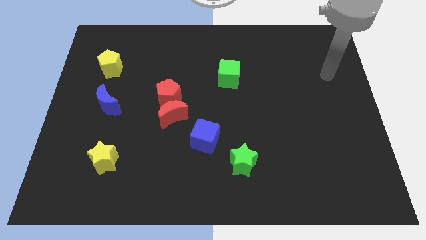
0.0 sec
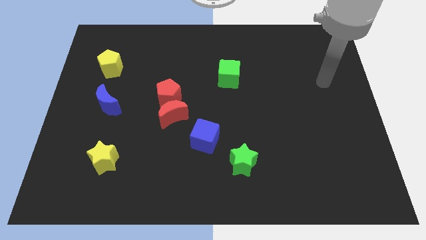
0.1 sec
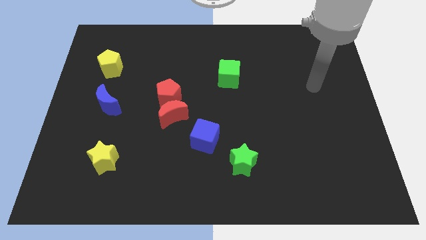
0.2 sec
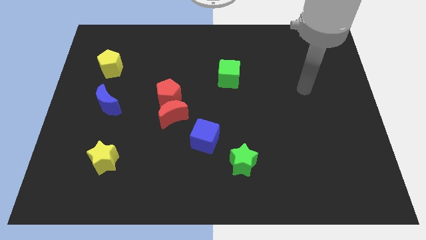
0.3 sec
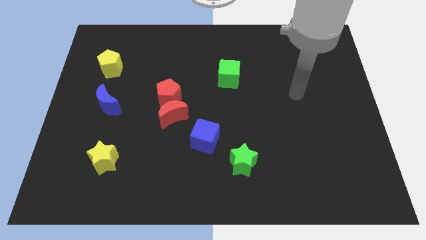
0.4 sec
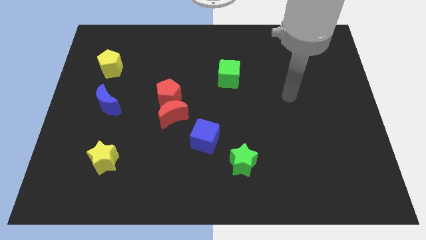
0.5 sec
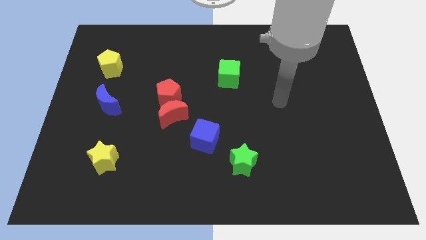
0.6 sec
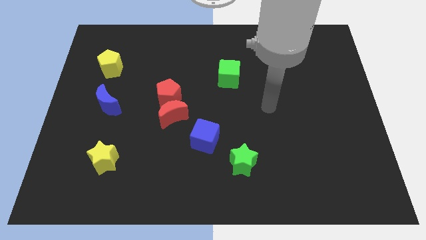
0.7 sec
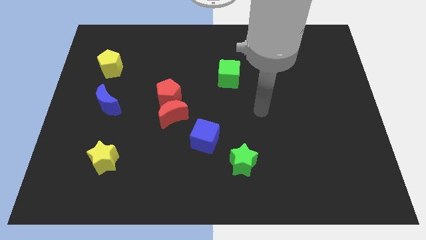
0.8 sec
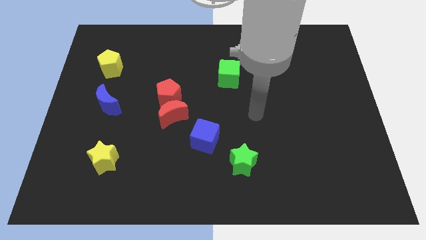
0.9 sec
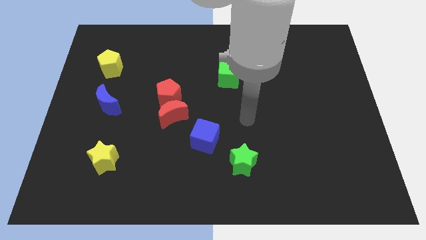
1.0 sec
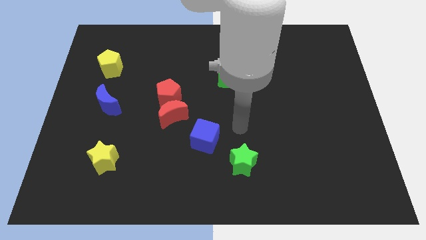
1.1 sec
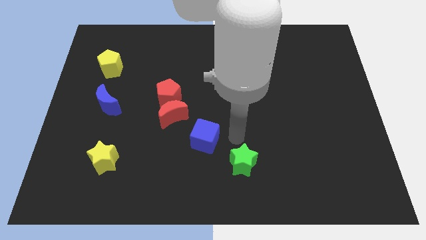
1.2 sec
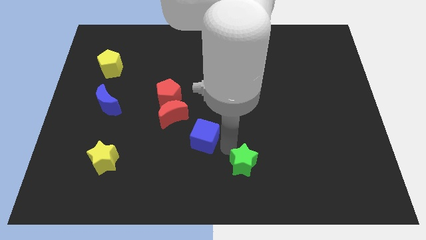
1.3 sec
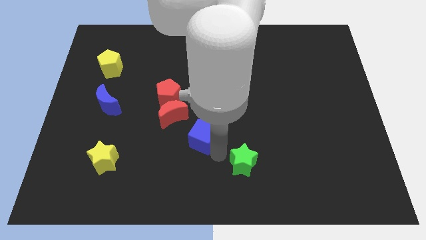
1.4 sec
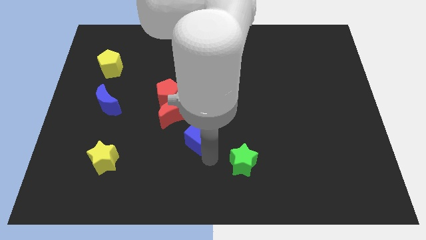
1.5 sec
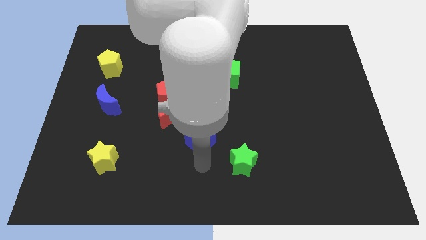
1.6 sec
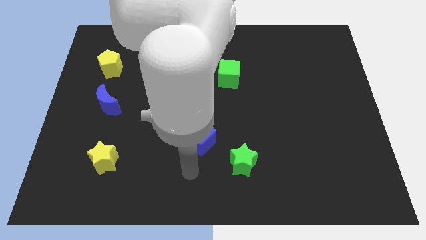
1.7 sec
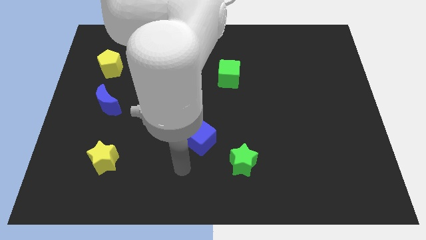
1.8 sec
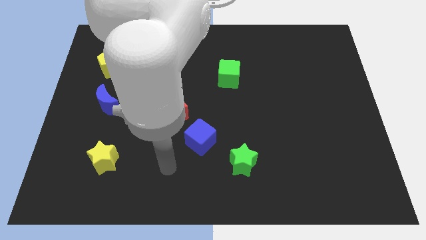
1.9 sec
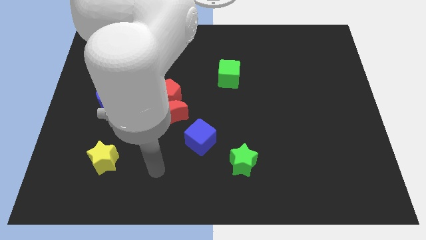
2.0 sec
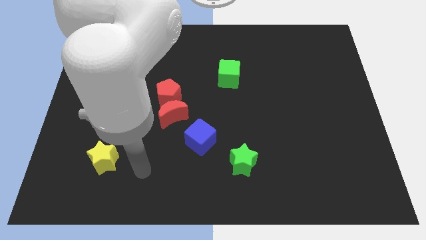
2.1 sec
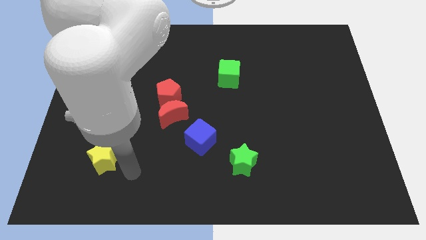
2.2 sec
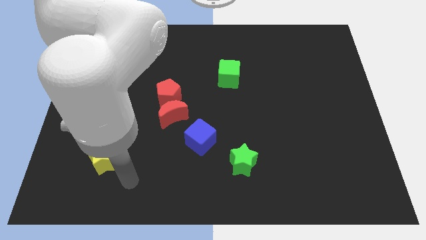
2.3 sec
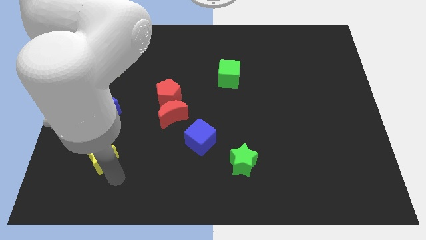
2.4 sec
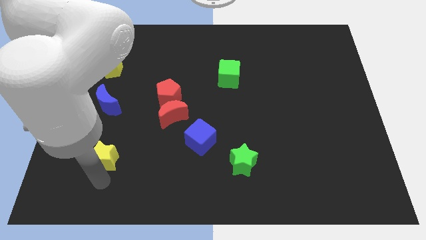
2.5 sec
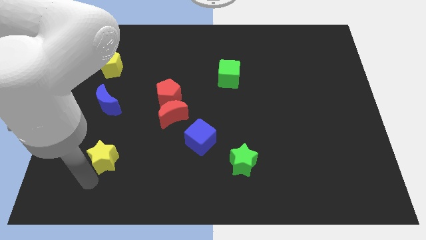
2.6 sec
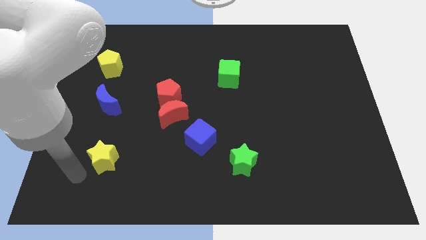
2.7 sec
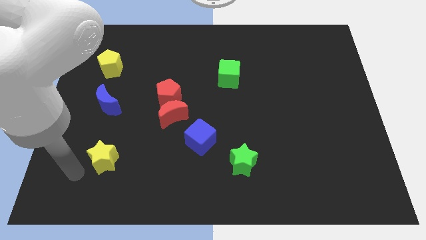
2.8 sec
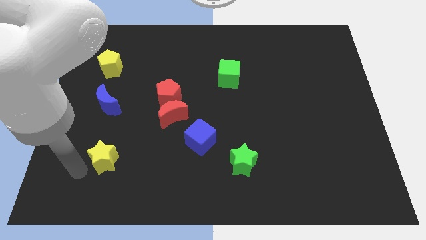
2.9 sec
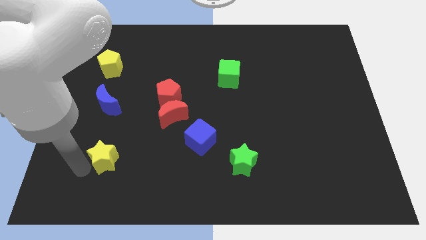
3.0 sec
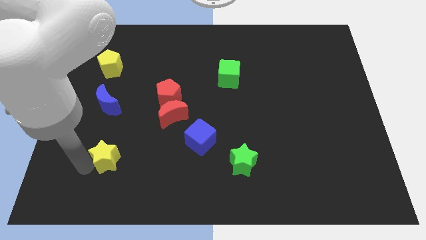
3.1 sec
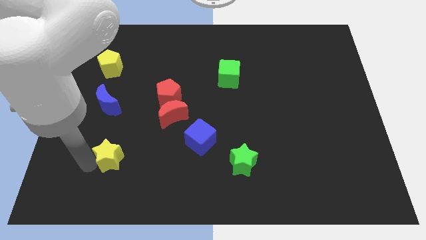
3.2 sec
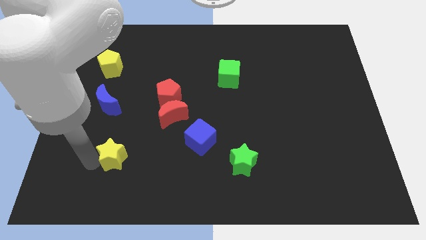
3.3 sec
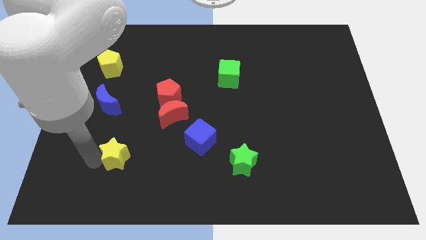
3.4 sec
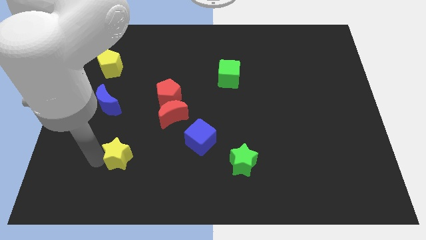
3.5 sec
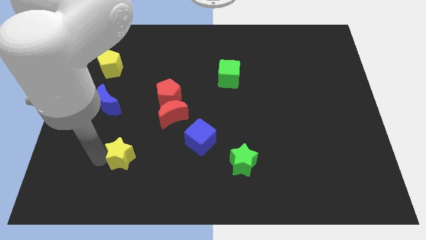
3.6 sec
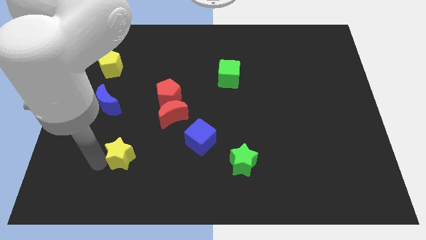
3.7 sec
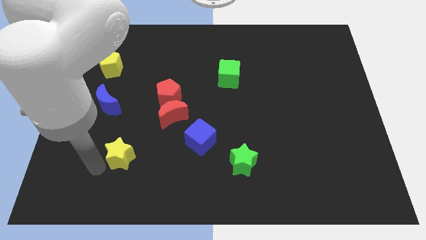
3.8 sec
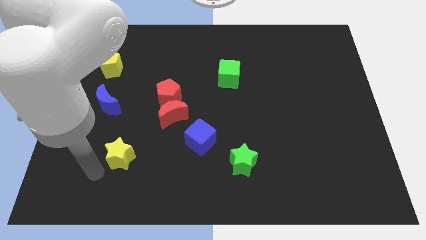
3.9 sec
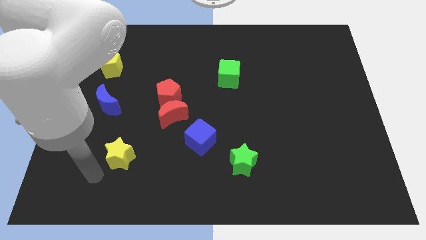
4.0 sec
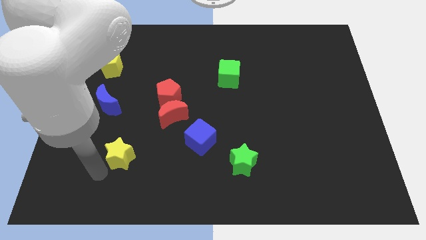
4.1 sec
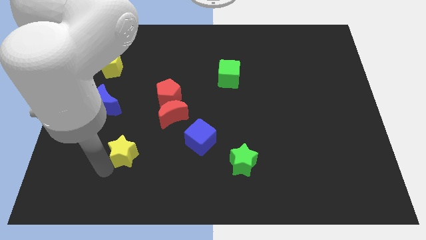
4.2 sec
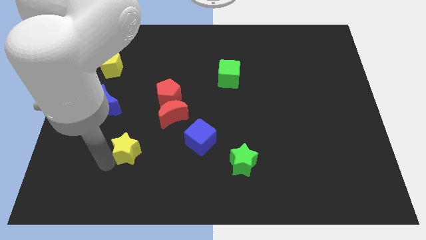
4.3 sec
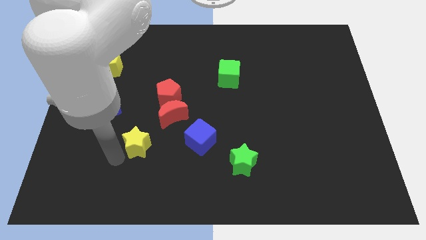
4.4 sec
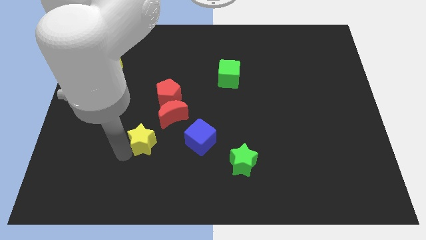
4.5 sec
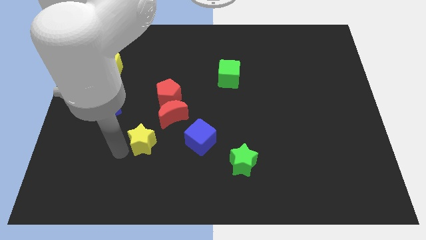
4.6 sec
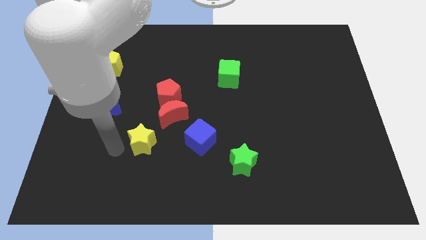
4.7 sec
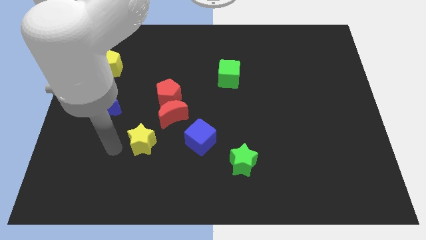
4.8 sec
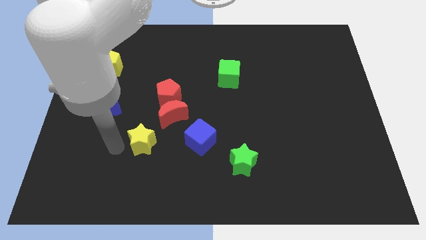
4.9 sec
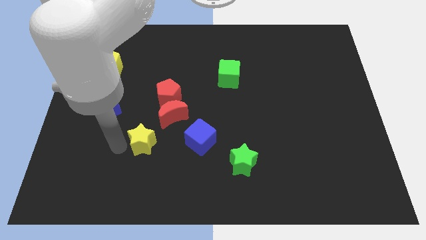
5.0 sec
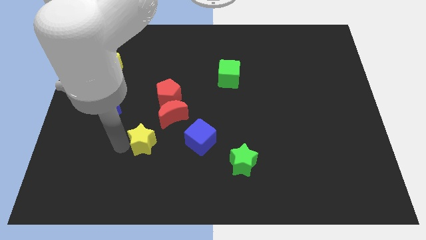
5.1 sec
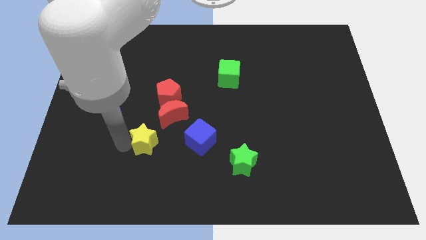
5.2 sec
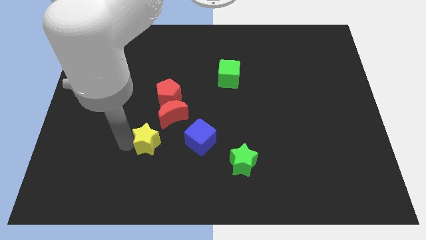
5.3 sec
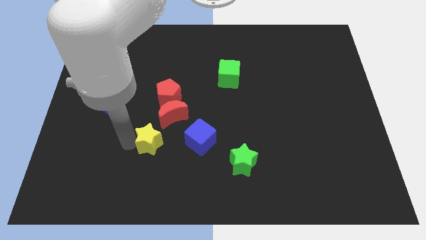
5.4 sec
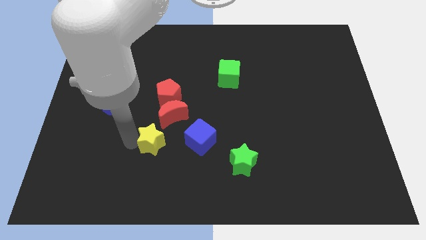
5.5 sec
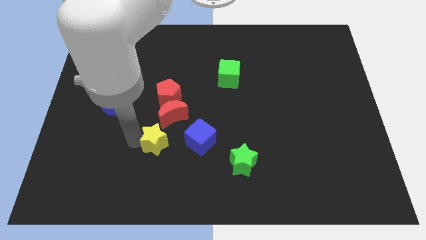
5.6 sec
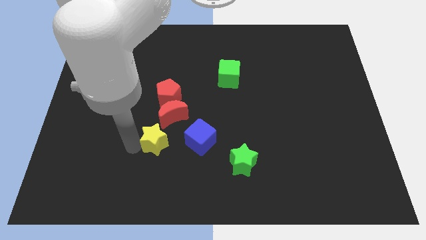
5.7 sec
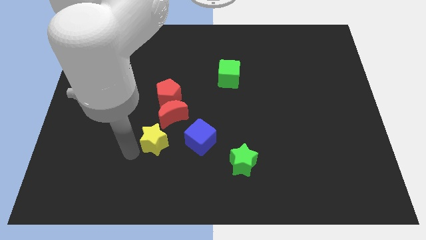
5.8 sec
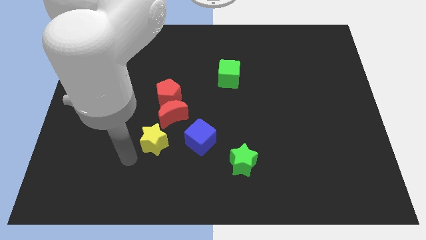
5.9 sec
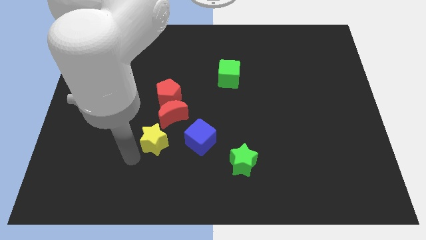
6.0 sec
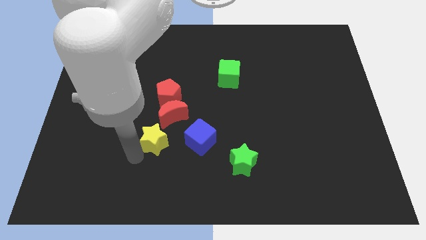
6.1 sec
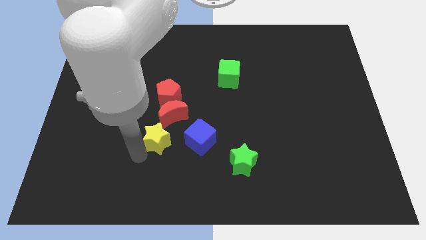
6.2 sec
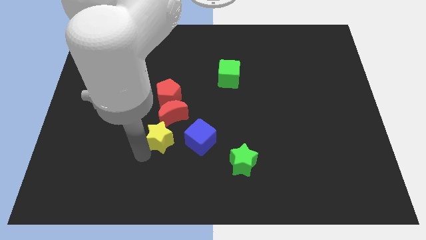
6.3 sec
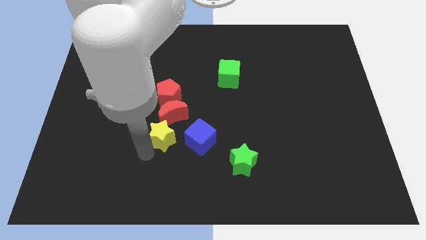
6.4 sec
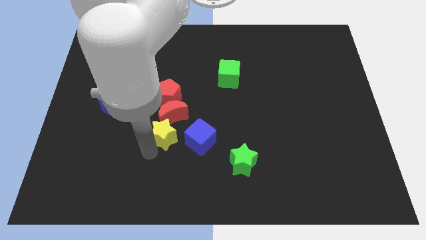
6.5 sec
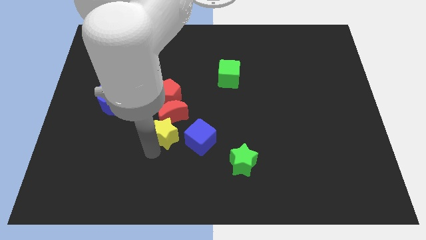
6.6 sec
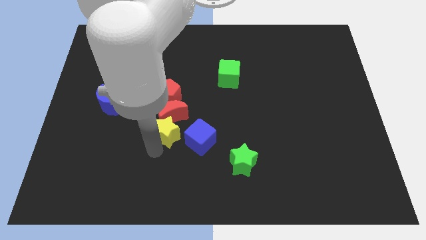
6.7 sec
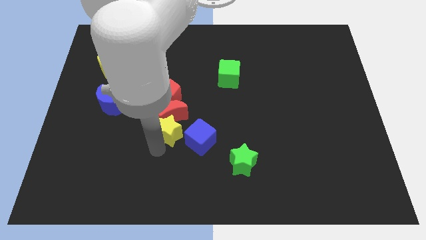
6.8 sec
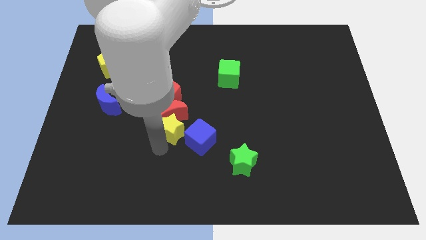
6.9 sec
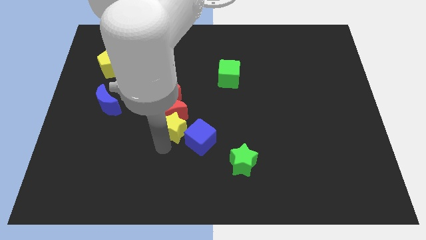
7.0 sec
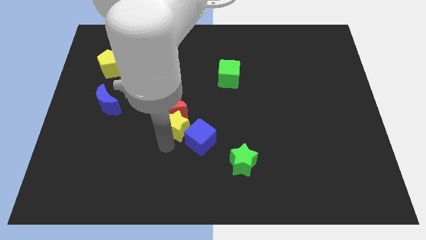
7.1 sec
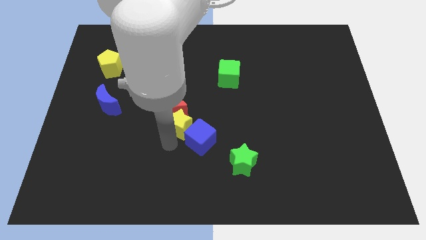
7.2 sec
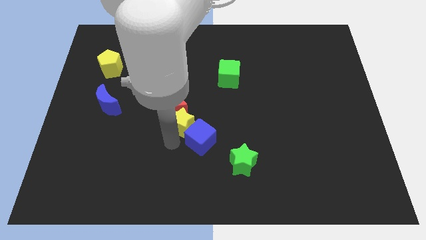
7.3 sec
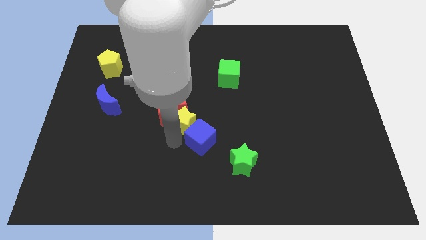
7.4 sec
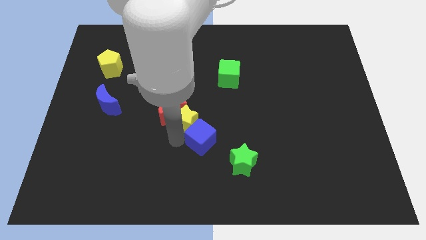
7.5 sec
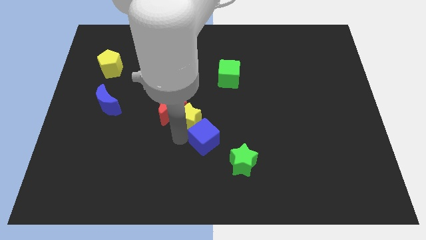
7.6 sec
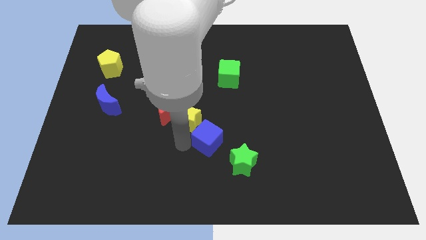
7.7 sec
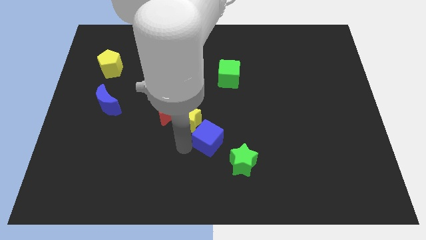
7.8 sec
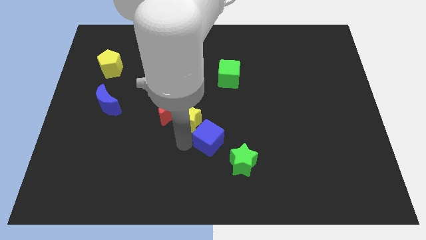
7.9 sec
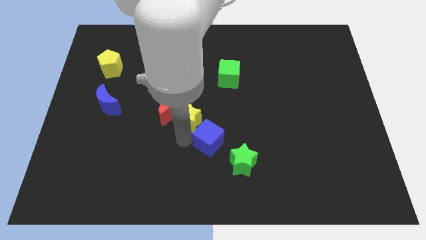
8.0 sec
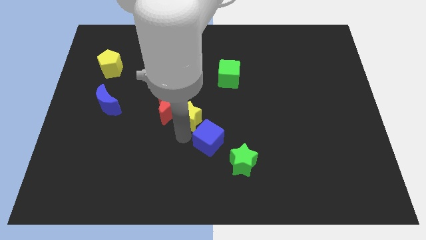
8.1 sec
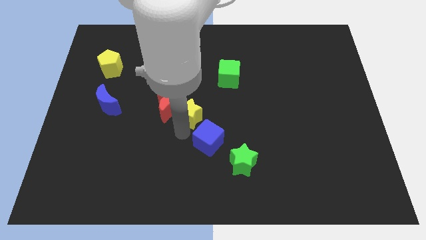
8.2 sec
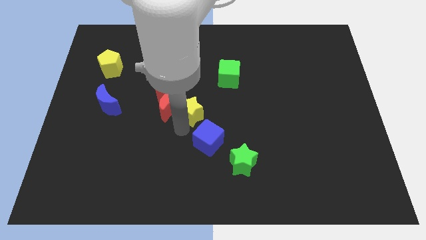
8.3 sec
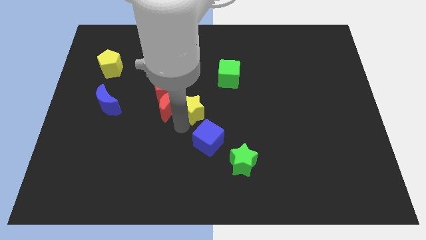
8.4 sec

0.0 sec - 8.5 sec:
push the yellow star to the top right side of the red moon
